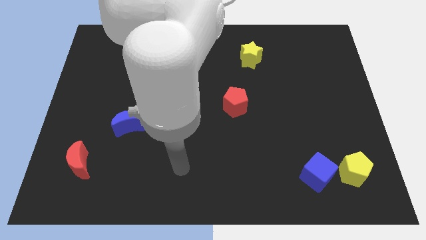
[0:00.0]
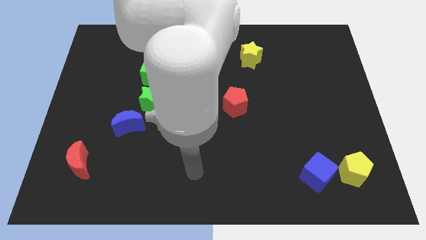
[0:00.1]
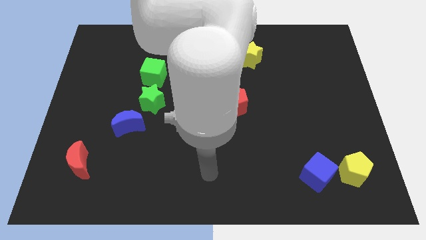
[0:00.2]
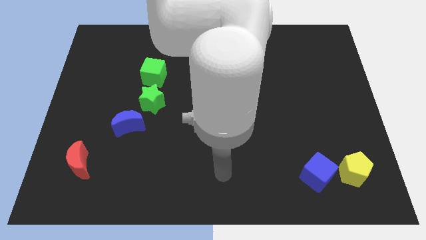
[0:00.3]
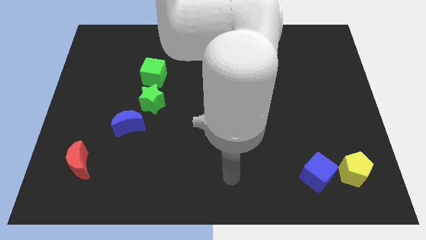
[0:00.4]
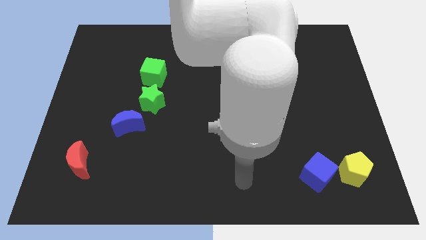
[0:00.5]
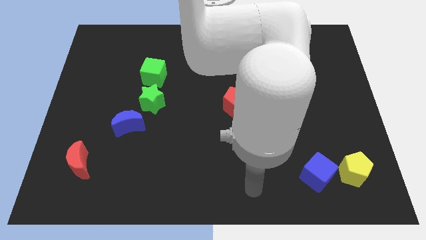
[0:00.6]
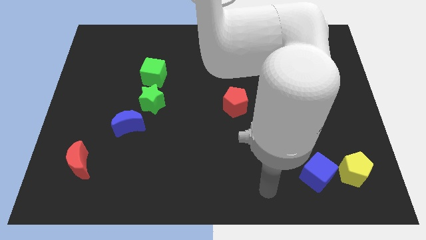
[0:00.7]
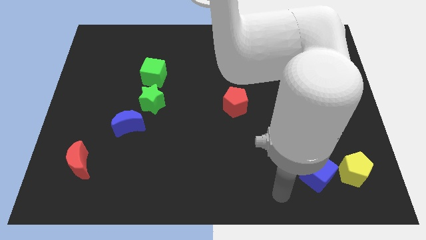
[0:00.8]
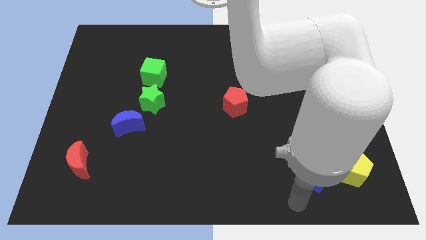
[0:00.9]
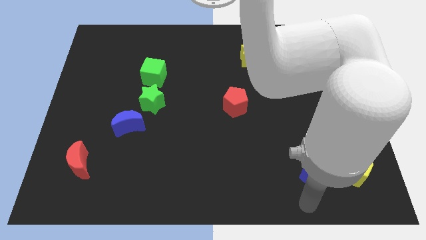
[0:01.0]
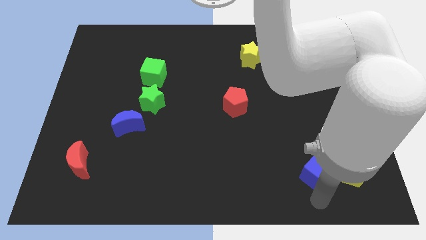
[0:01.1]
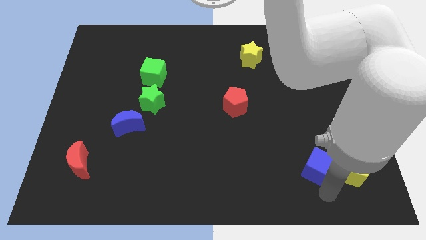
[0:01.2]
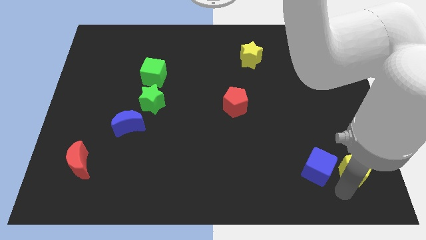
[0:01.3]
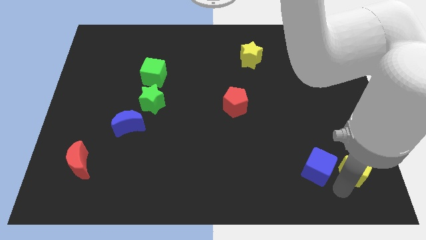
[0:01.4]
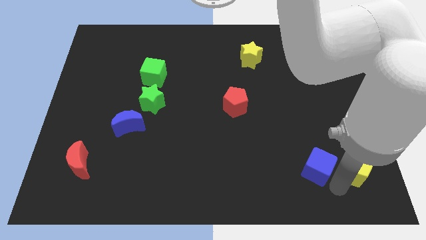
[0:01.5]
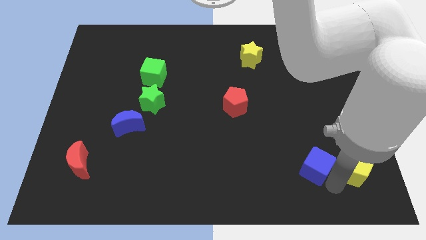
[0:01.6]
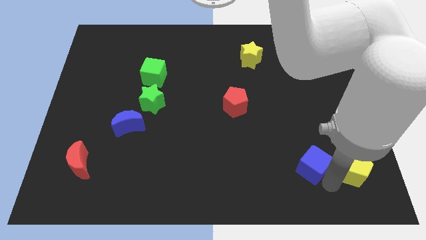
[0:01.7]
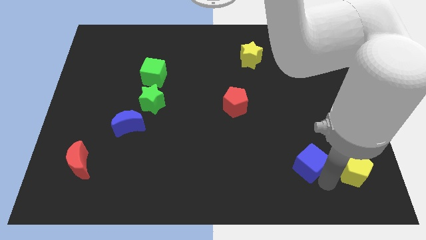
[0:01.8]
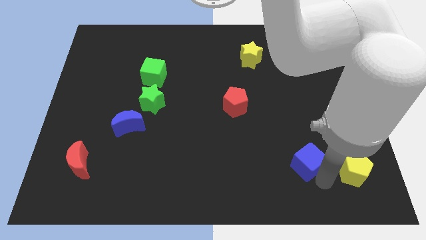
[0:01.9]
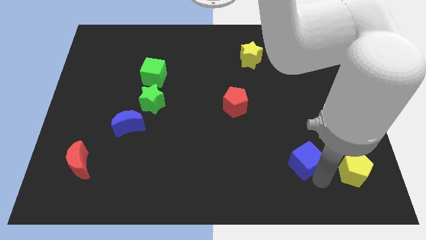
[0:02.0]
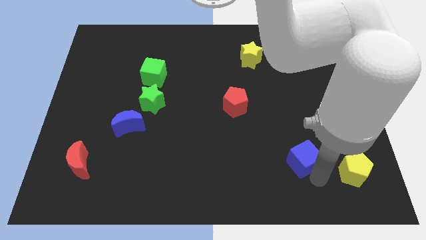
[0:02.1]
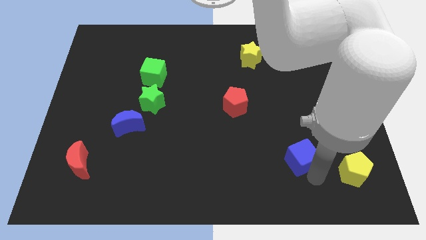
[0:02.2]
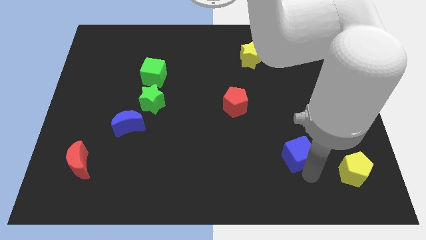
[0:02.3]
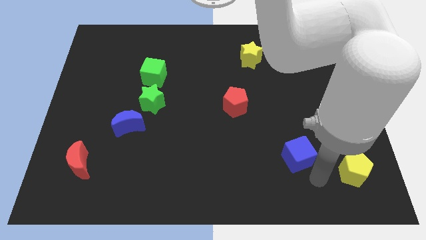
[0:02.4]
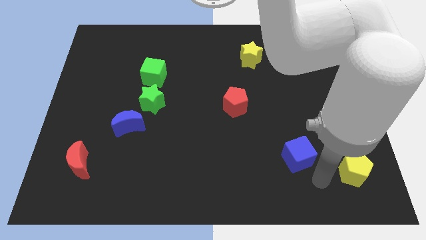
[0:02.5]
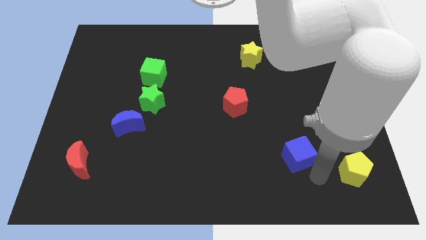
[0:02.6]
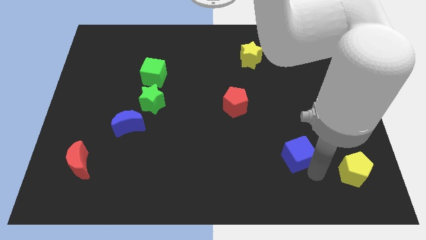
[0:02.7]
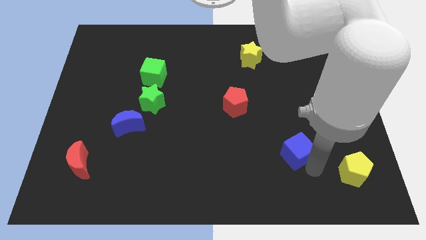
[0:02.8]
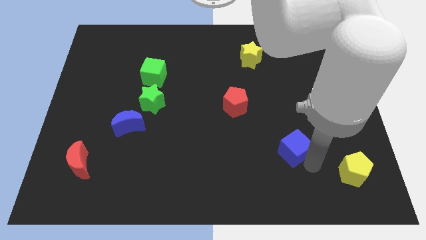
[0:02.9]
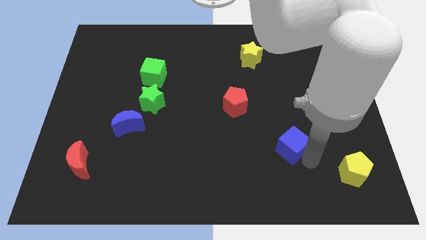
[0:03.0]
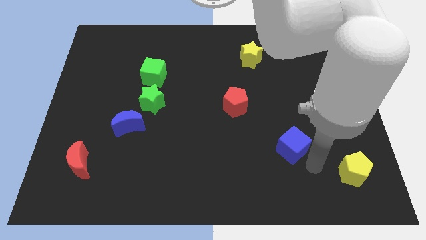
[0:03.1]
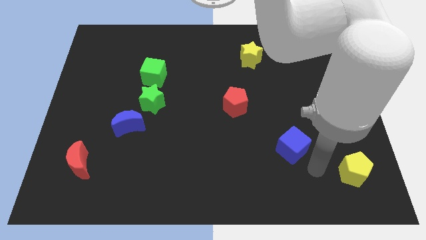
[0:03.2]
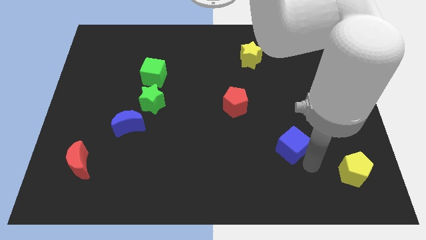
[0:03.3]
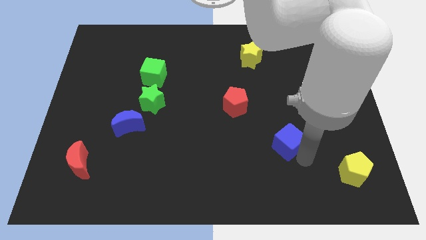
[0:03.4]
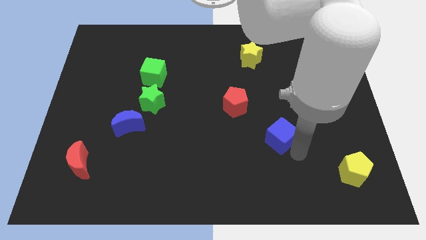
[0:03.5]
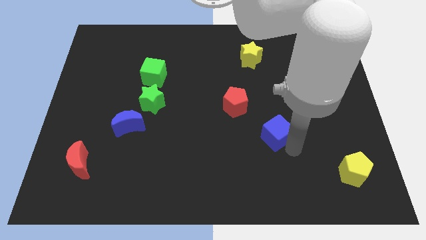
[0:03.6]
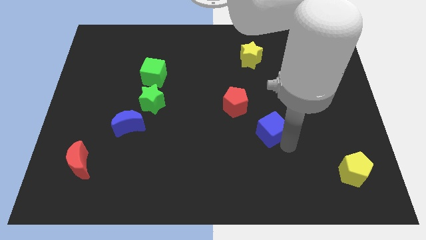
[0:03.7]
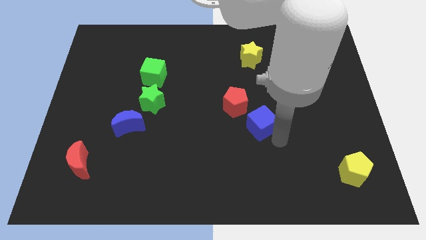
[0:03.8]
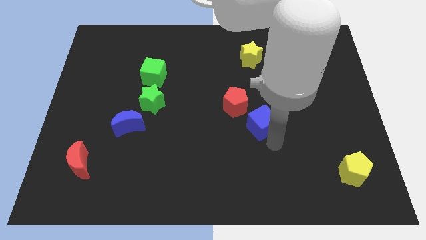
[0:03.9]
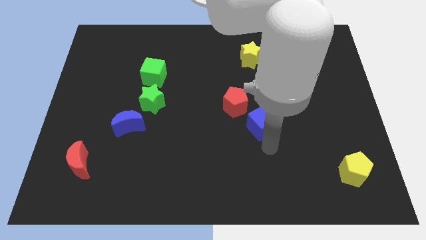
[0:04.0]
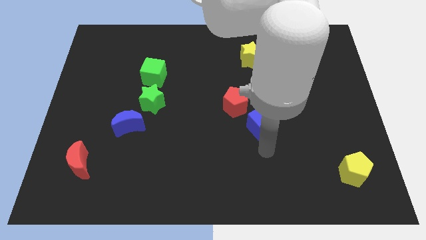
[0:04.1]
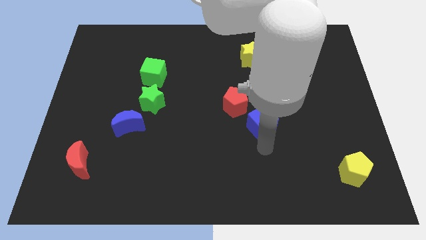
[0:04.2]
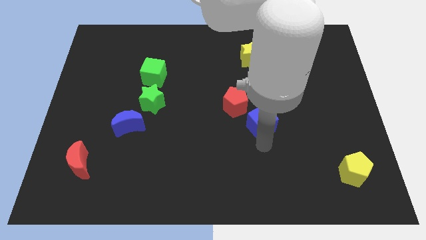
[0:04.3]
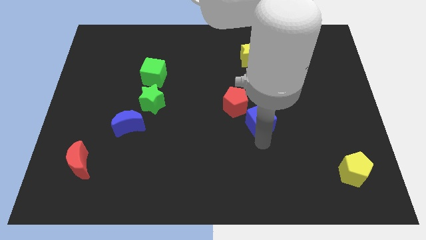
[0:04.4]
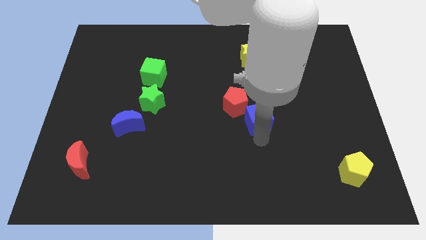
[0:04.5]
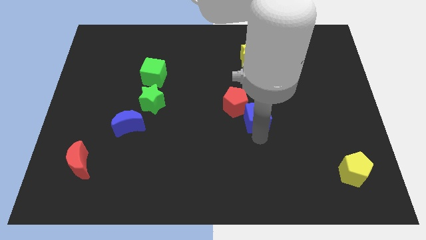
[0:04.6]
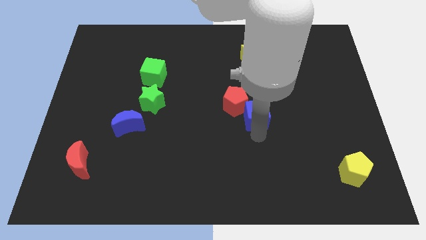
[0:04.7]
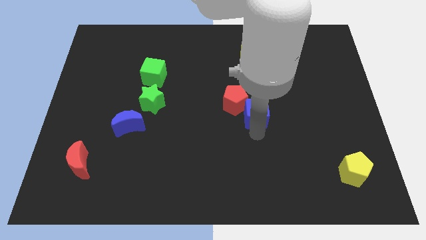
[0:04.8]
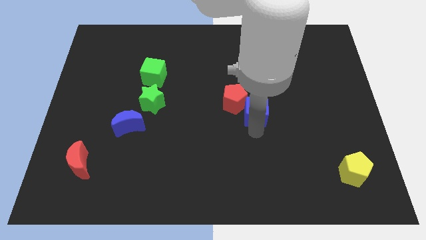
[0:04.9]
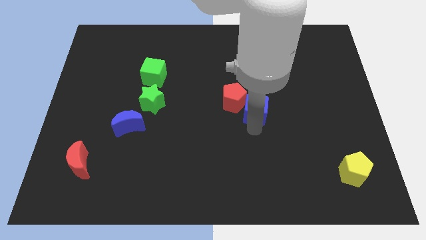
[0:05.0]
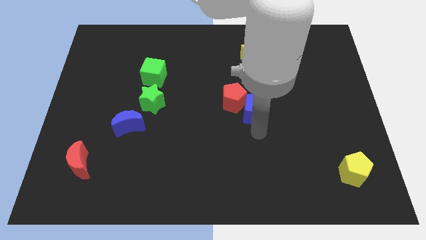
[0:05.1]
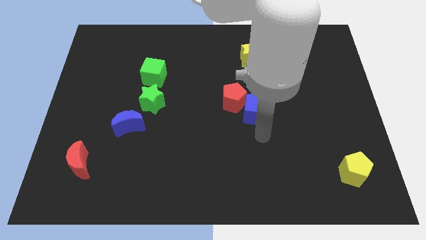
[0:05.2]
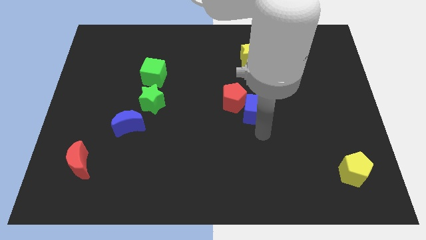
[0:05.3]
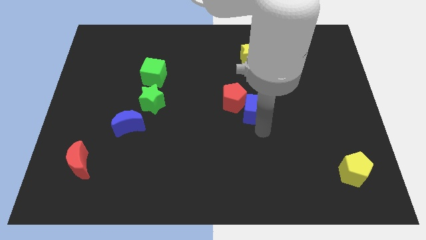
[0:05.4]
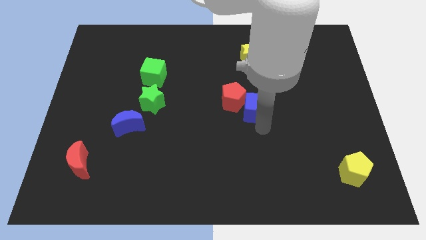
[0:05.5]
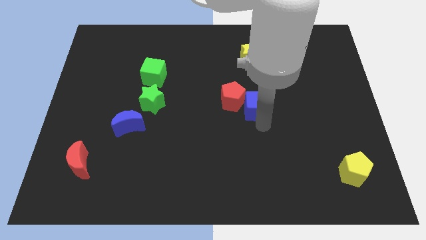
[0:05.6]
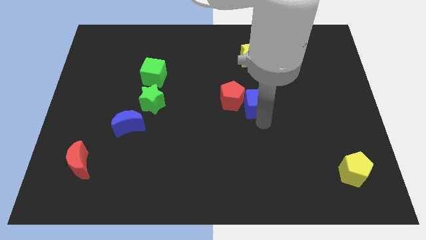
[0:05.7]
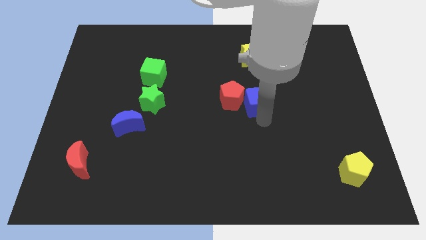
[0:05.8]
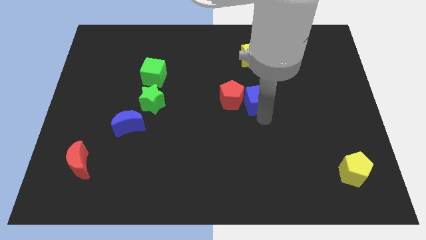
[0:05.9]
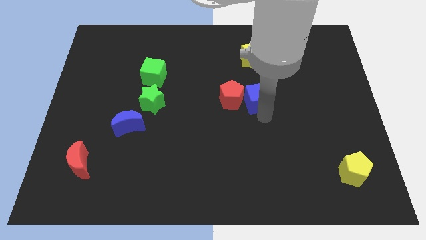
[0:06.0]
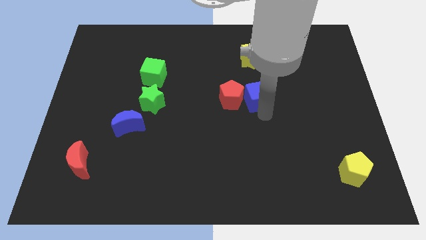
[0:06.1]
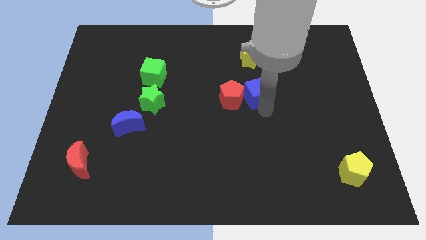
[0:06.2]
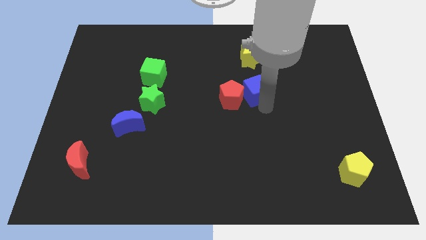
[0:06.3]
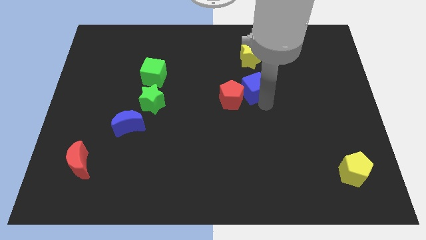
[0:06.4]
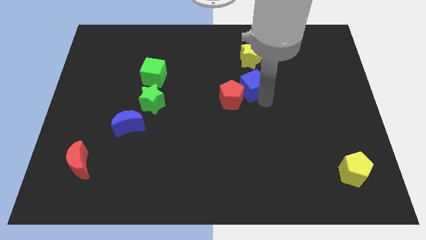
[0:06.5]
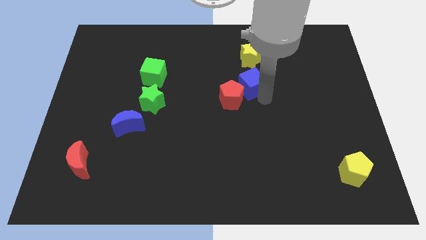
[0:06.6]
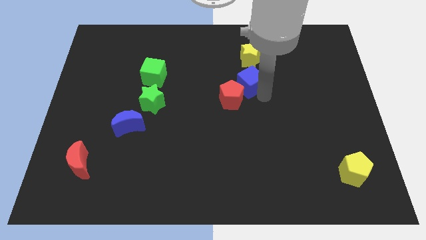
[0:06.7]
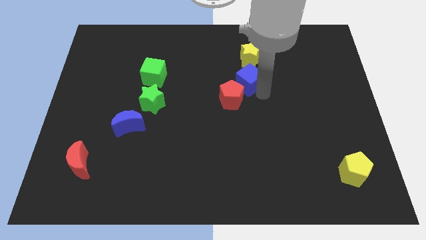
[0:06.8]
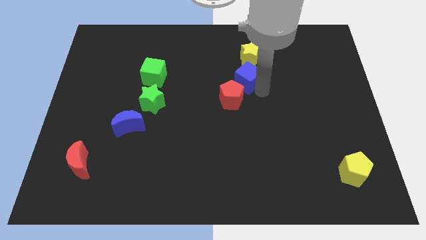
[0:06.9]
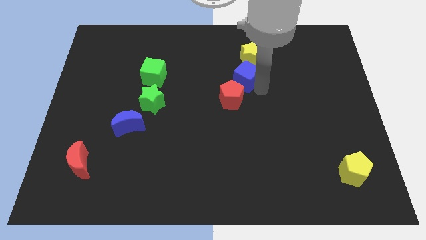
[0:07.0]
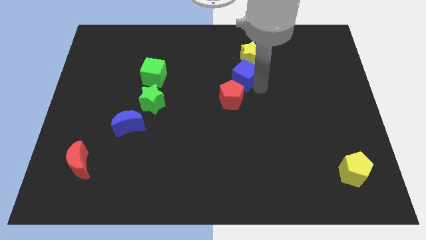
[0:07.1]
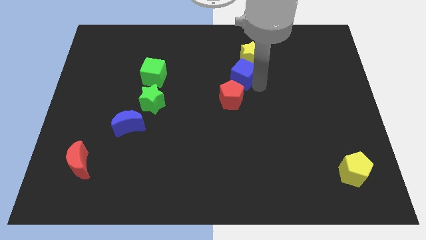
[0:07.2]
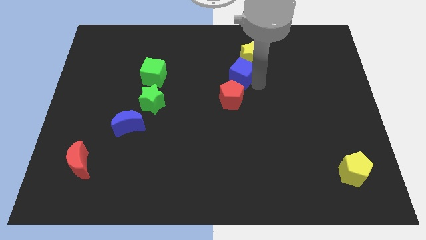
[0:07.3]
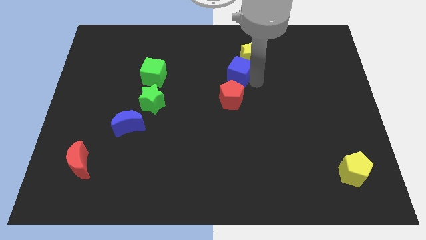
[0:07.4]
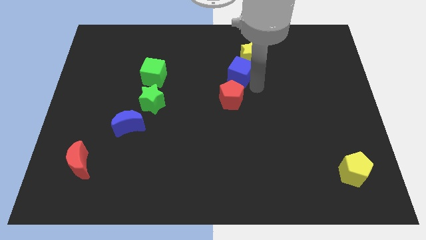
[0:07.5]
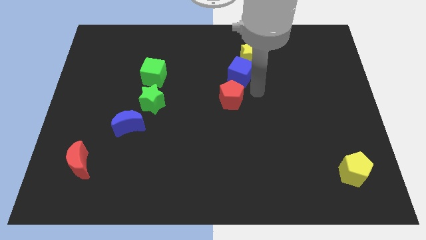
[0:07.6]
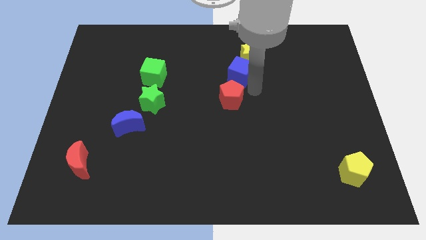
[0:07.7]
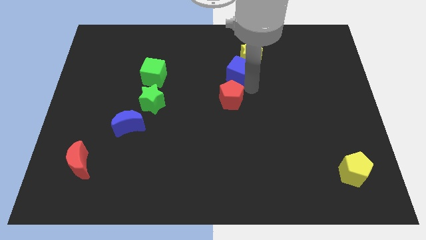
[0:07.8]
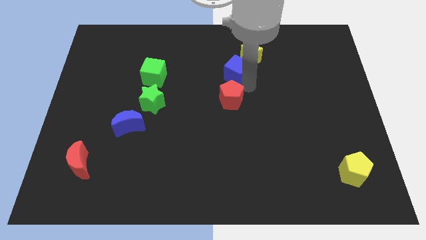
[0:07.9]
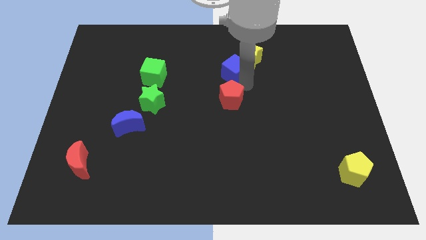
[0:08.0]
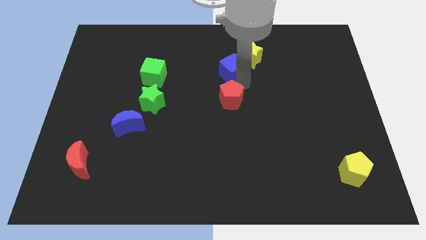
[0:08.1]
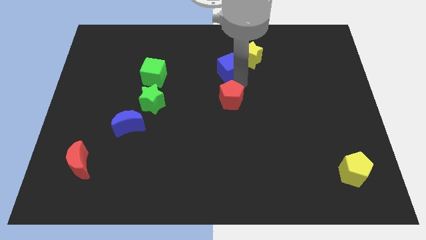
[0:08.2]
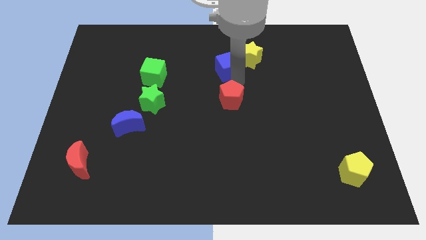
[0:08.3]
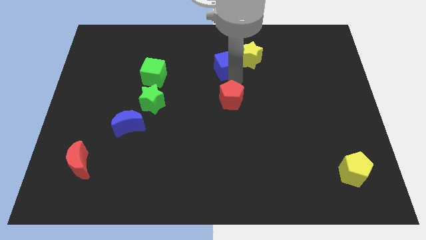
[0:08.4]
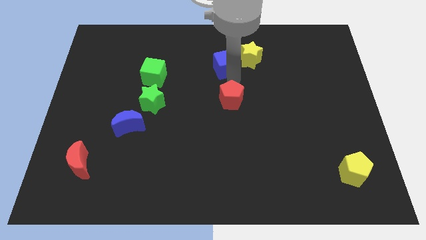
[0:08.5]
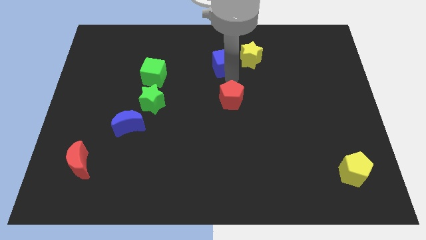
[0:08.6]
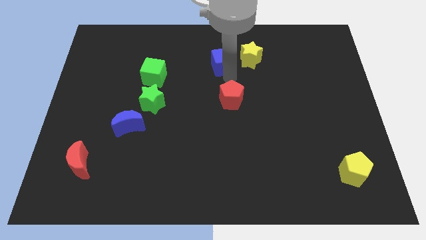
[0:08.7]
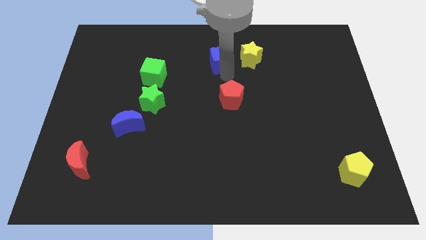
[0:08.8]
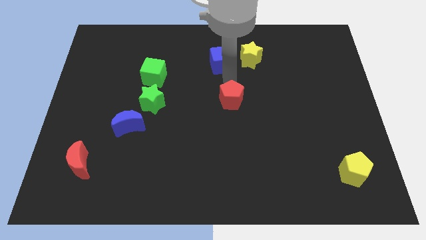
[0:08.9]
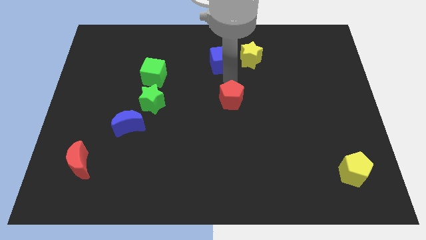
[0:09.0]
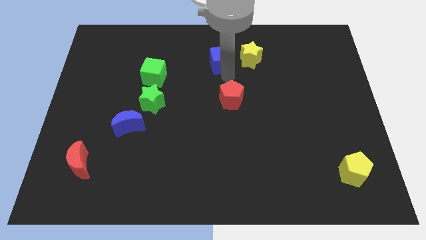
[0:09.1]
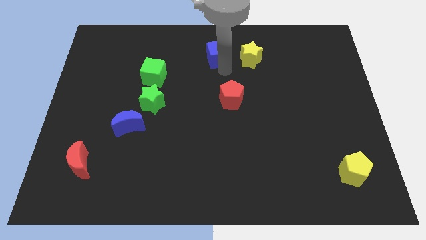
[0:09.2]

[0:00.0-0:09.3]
move the blue cube to the top side
